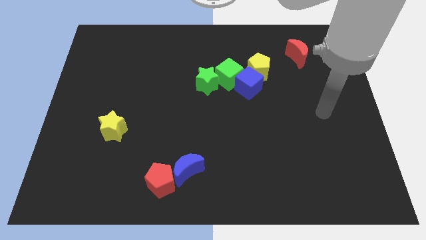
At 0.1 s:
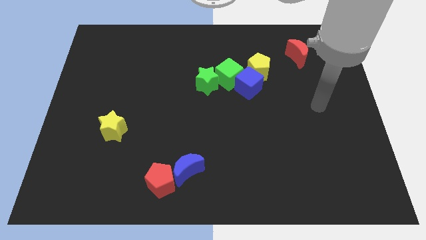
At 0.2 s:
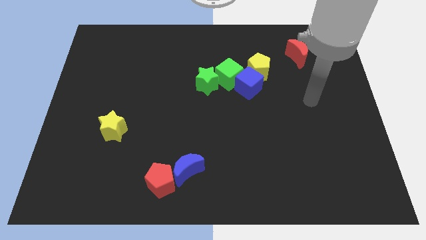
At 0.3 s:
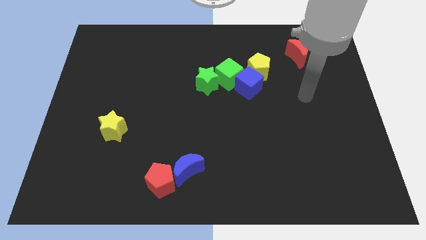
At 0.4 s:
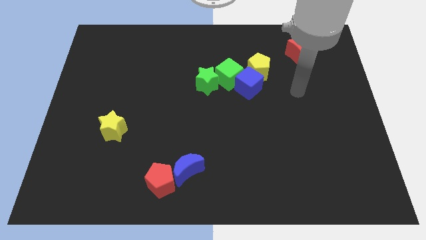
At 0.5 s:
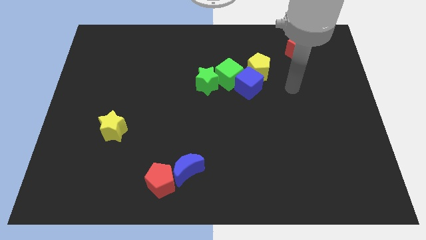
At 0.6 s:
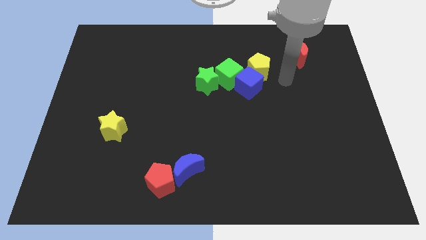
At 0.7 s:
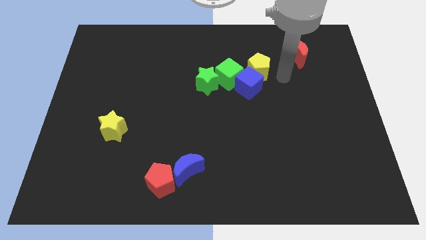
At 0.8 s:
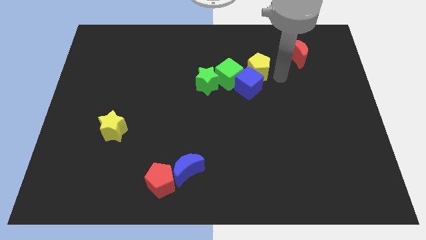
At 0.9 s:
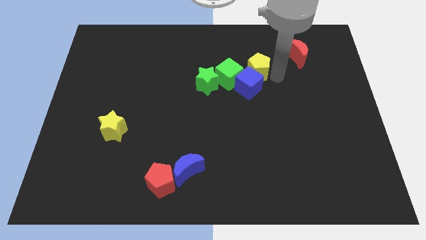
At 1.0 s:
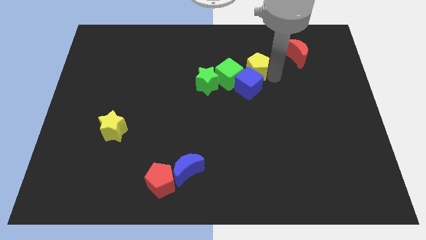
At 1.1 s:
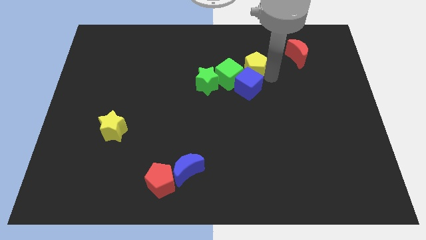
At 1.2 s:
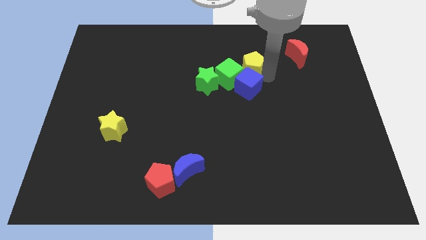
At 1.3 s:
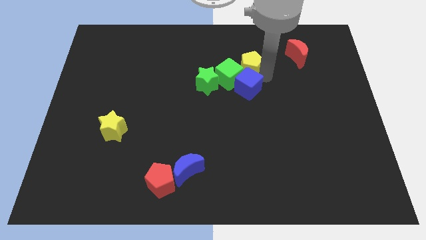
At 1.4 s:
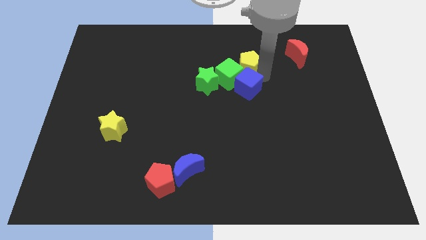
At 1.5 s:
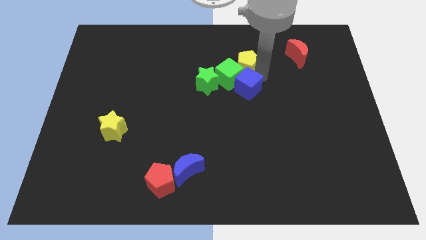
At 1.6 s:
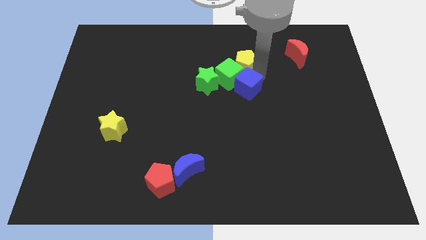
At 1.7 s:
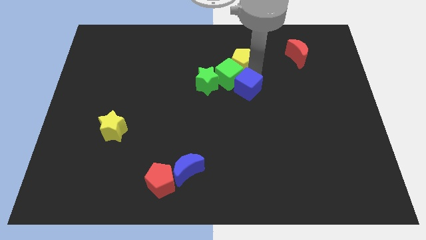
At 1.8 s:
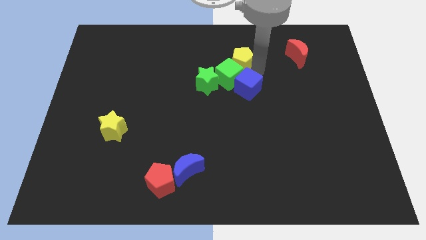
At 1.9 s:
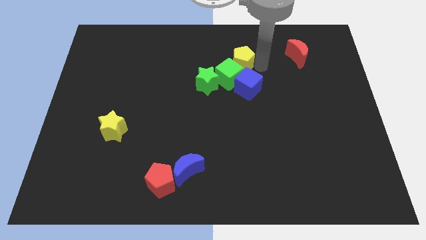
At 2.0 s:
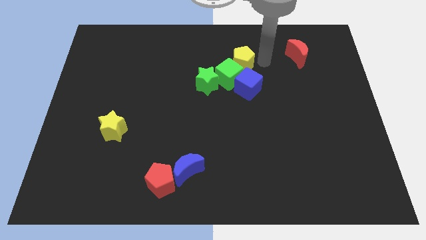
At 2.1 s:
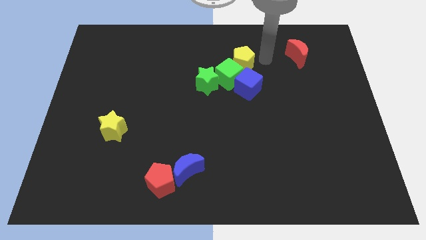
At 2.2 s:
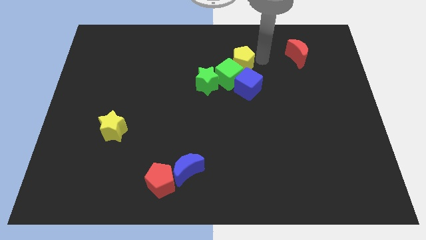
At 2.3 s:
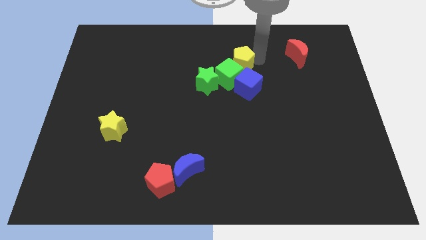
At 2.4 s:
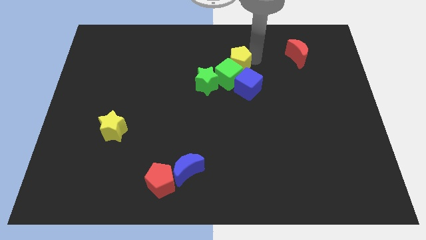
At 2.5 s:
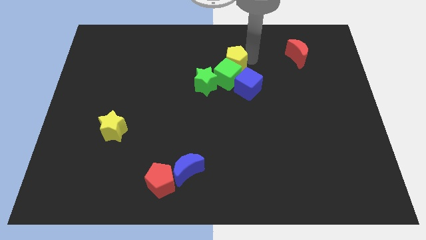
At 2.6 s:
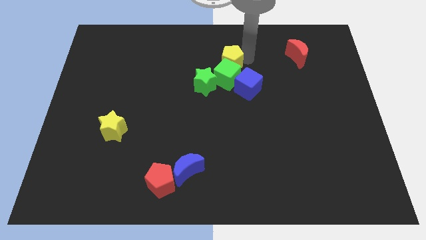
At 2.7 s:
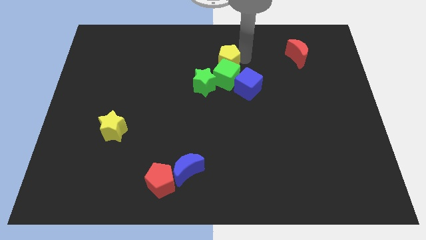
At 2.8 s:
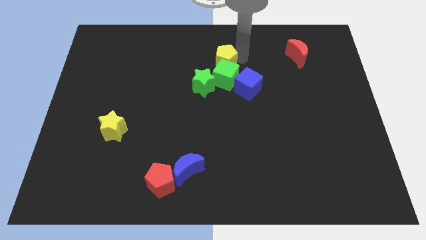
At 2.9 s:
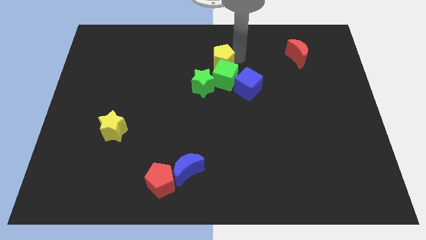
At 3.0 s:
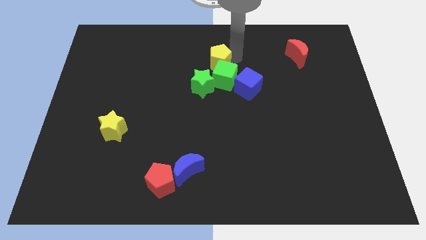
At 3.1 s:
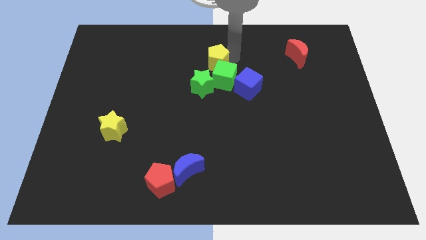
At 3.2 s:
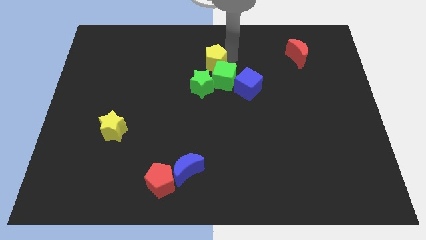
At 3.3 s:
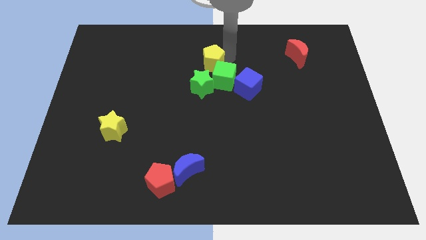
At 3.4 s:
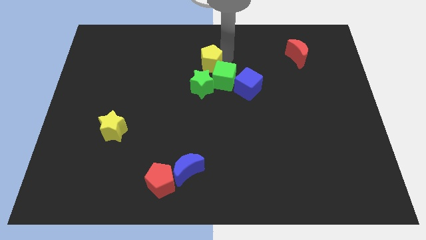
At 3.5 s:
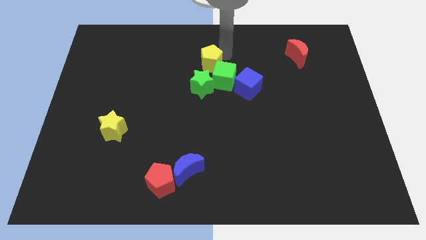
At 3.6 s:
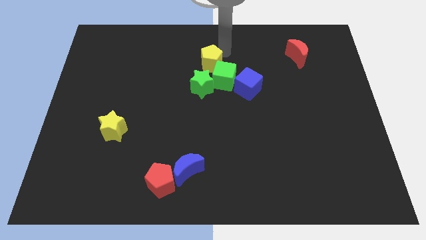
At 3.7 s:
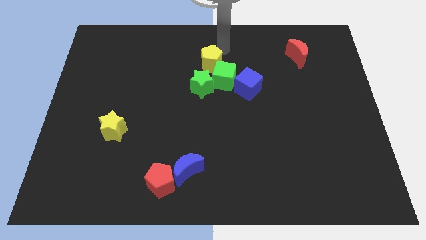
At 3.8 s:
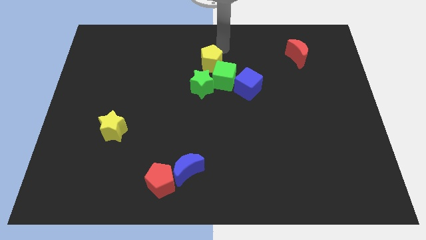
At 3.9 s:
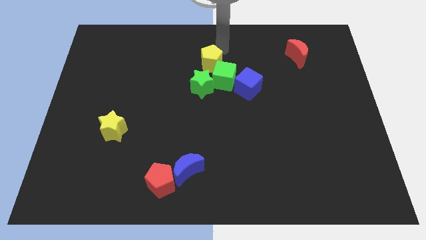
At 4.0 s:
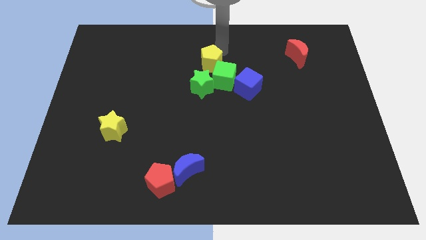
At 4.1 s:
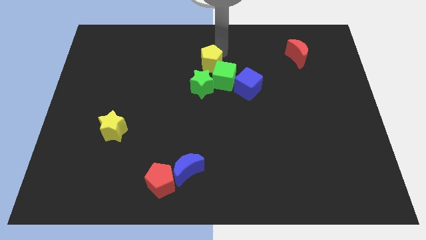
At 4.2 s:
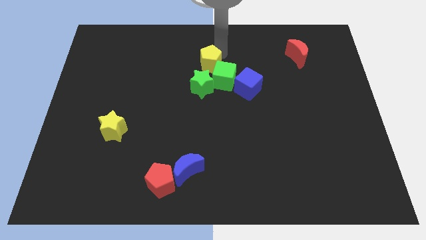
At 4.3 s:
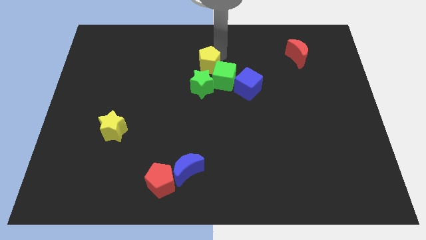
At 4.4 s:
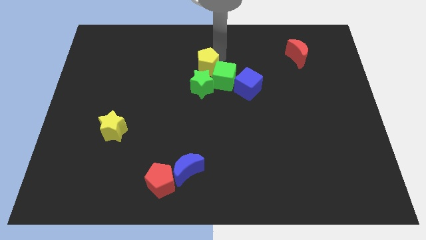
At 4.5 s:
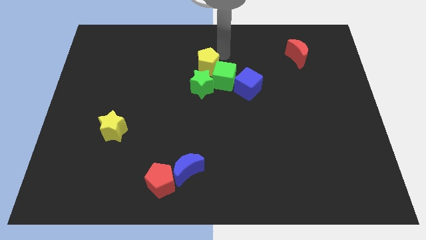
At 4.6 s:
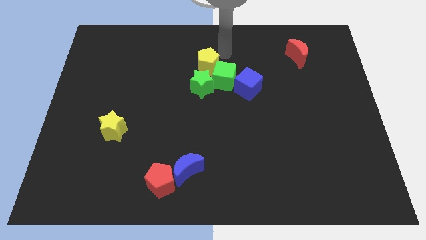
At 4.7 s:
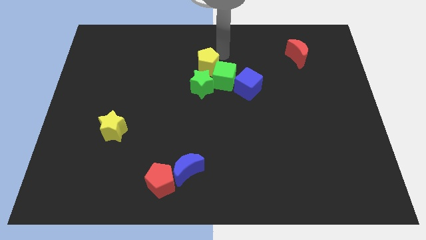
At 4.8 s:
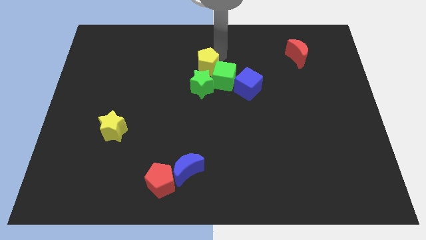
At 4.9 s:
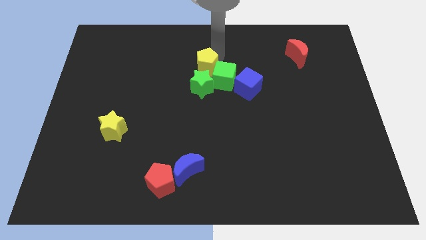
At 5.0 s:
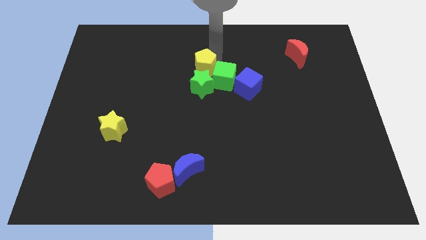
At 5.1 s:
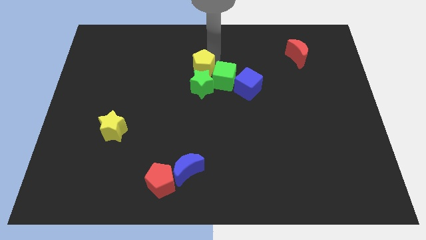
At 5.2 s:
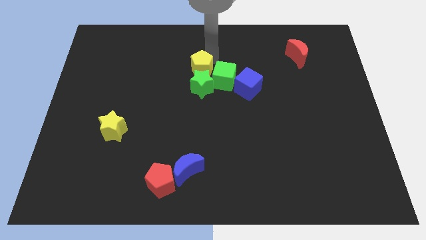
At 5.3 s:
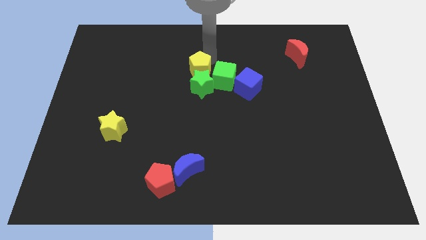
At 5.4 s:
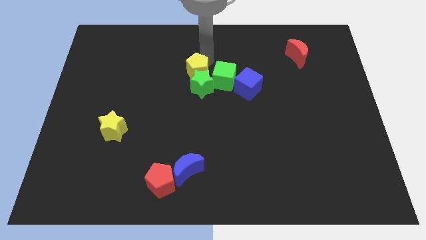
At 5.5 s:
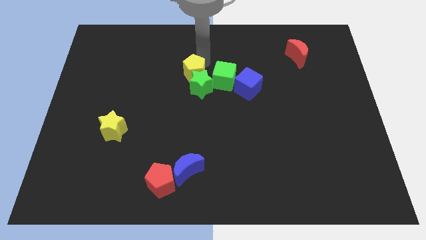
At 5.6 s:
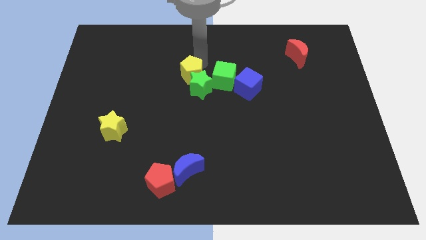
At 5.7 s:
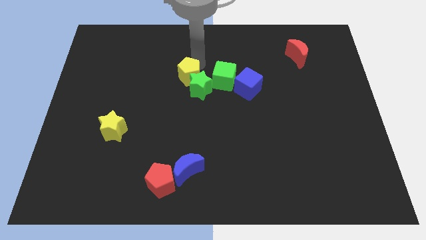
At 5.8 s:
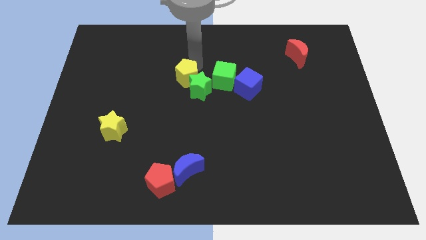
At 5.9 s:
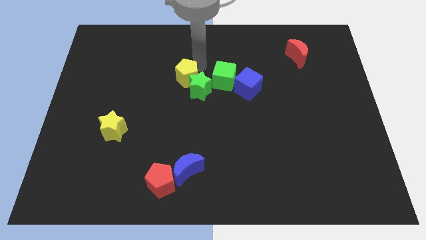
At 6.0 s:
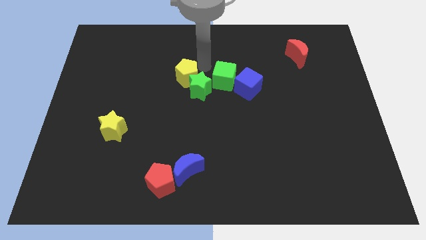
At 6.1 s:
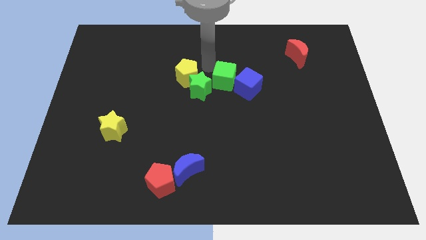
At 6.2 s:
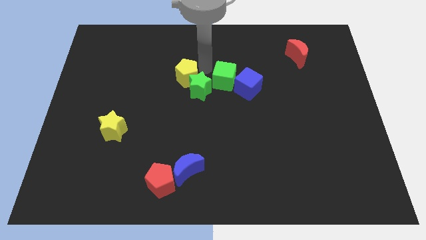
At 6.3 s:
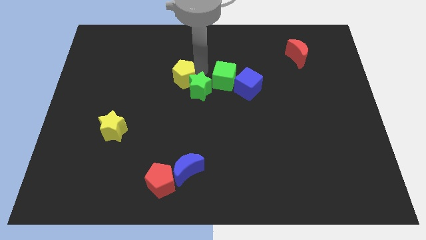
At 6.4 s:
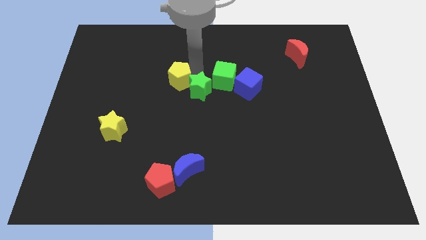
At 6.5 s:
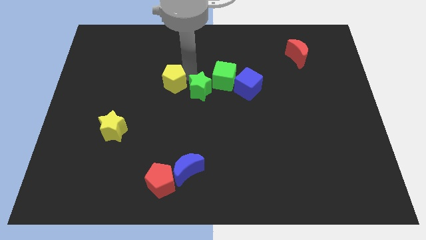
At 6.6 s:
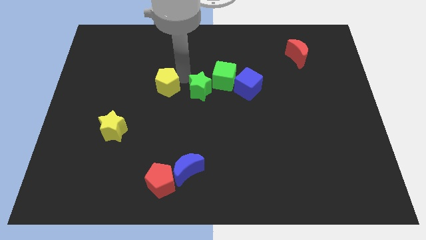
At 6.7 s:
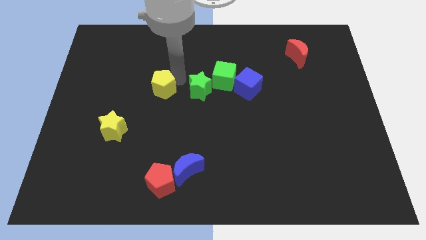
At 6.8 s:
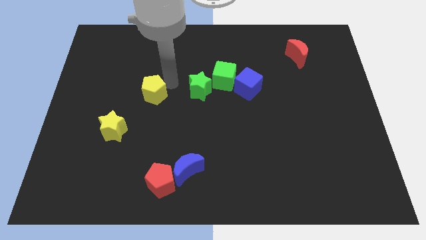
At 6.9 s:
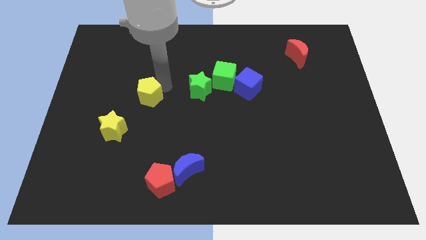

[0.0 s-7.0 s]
push the yellow pentagon to the top right side of the yellow star

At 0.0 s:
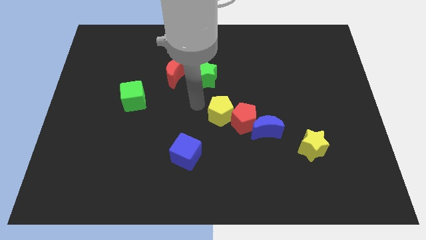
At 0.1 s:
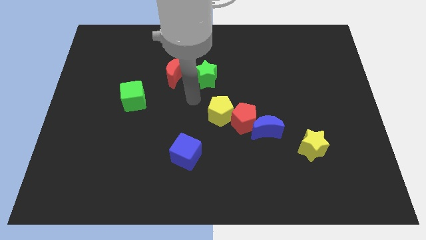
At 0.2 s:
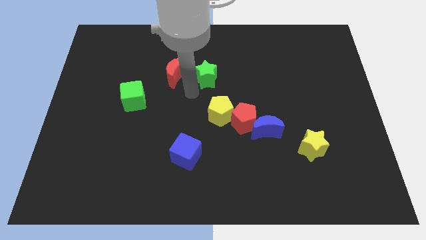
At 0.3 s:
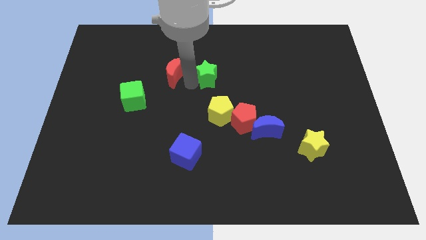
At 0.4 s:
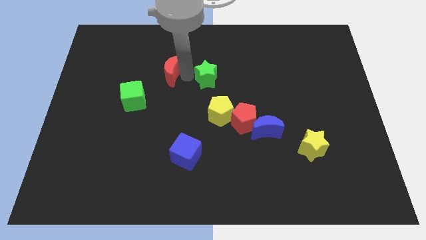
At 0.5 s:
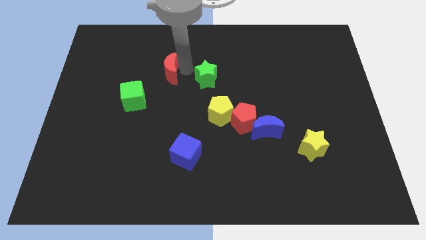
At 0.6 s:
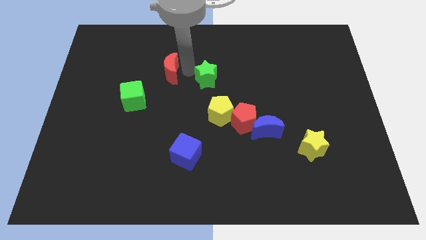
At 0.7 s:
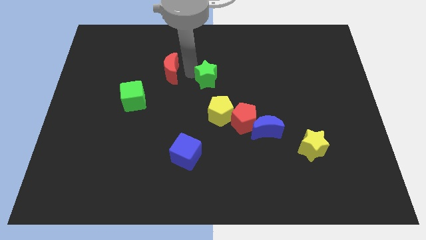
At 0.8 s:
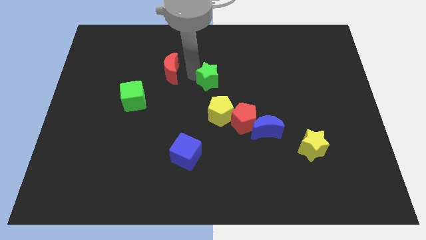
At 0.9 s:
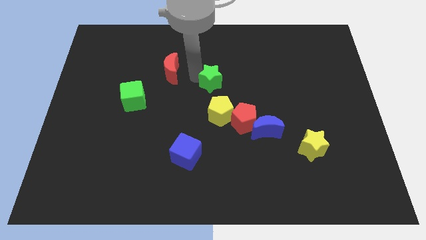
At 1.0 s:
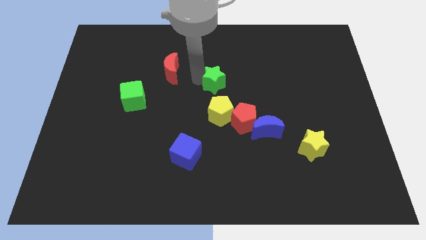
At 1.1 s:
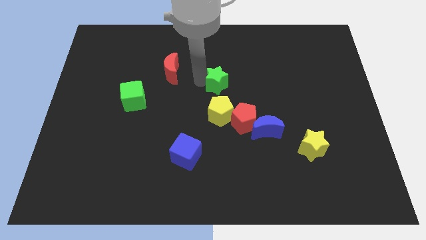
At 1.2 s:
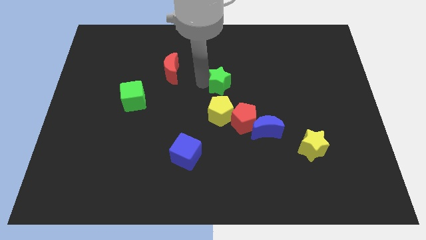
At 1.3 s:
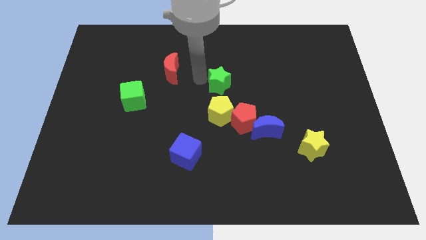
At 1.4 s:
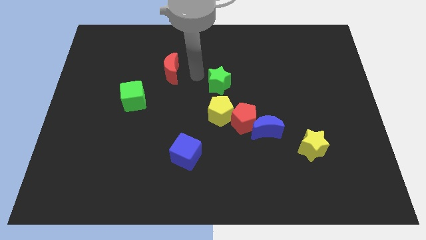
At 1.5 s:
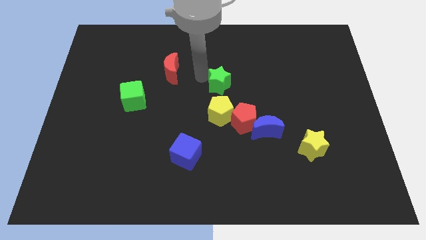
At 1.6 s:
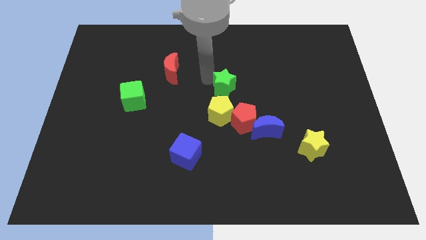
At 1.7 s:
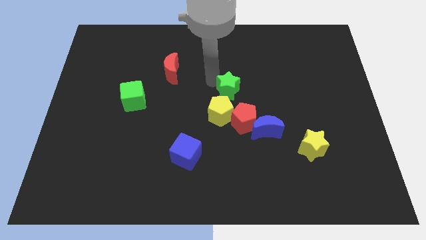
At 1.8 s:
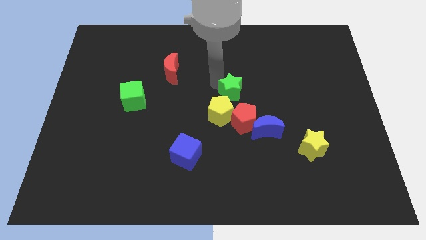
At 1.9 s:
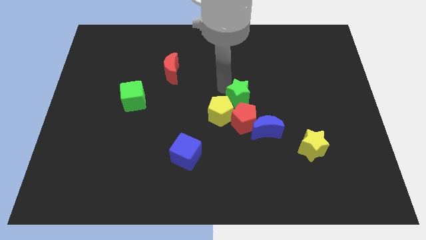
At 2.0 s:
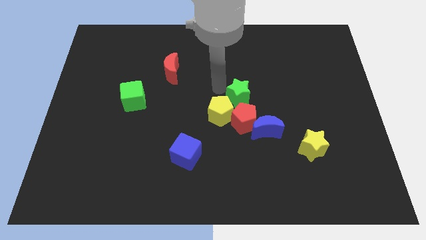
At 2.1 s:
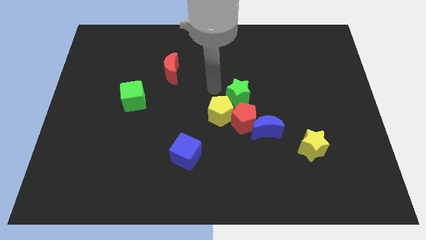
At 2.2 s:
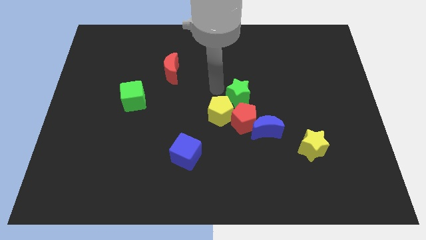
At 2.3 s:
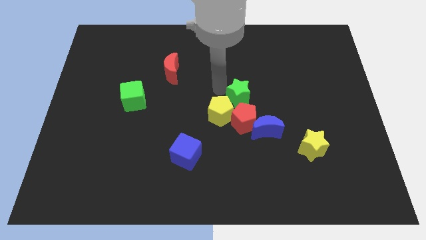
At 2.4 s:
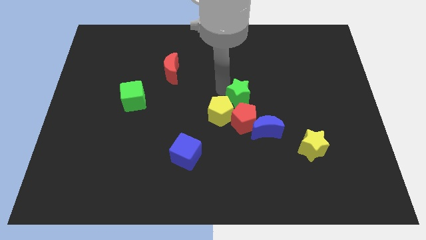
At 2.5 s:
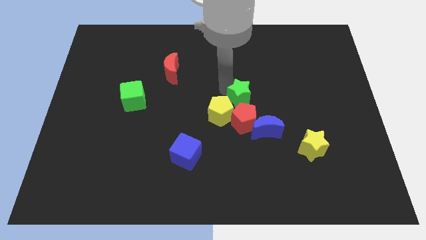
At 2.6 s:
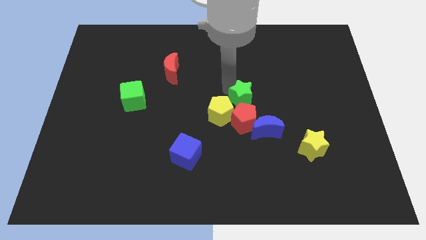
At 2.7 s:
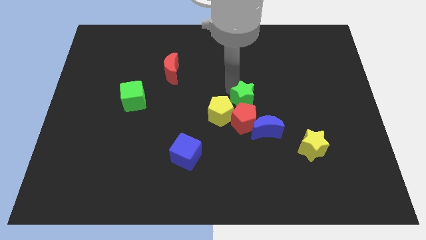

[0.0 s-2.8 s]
slide the green star to the top right side of the red pentagon
